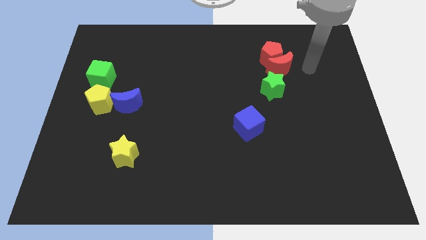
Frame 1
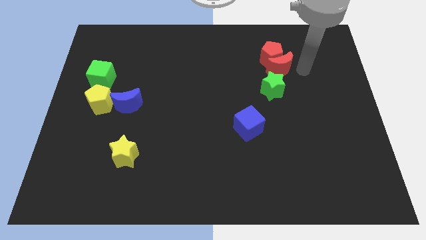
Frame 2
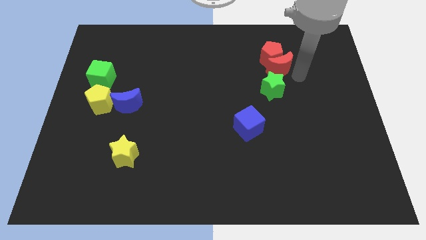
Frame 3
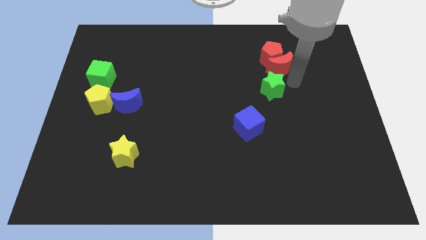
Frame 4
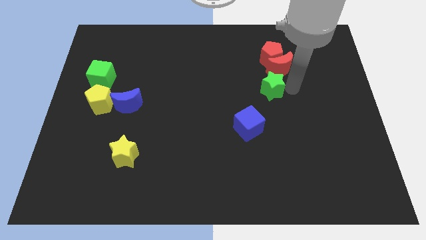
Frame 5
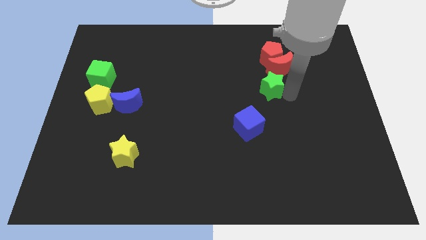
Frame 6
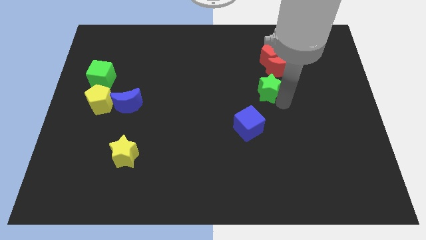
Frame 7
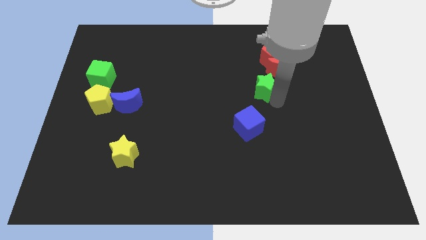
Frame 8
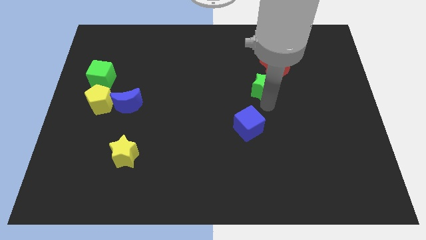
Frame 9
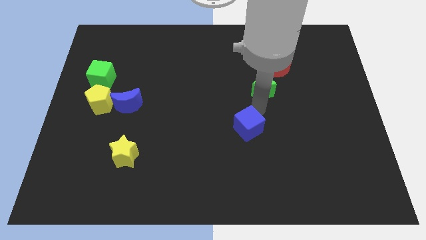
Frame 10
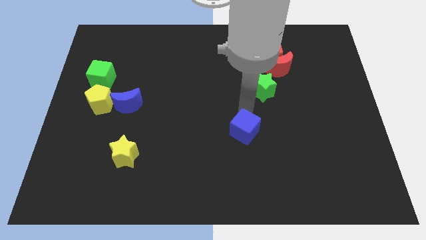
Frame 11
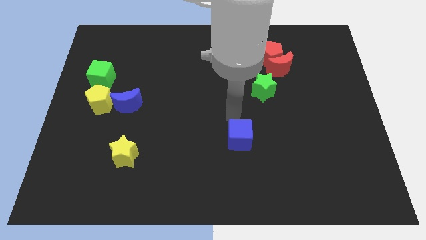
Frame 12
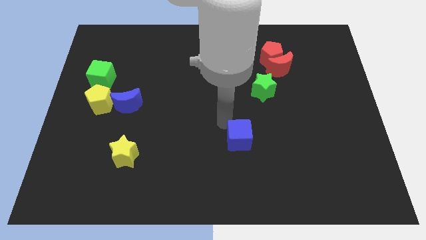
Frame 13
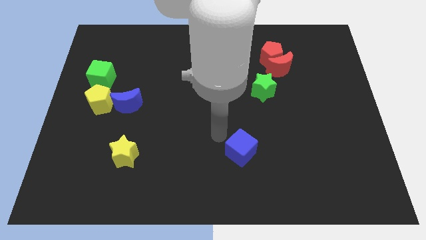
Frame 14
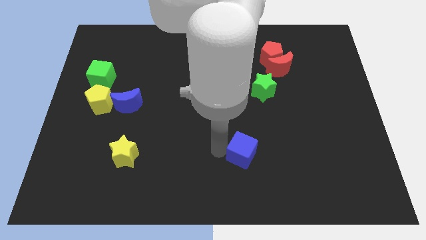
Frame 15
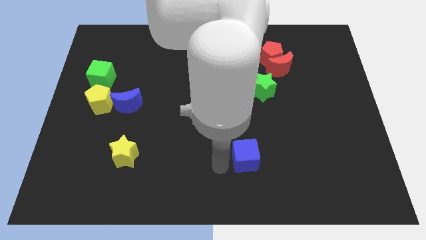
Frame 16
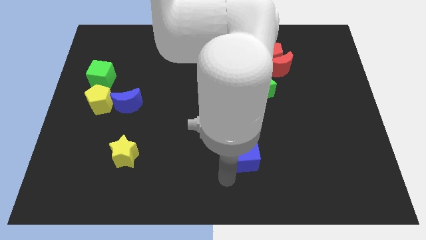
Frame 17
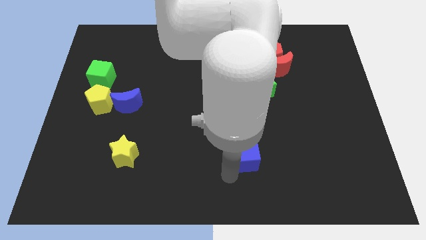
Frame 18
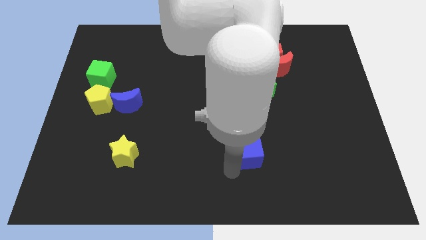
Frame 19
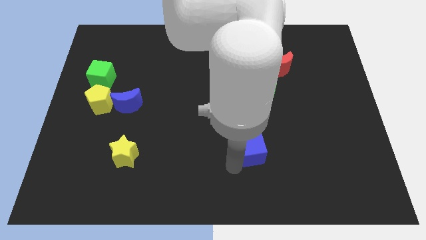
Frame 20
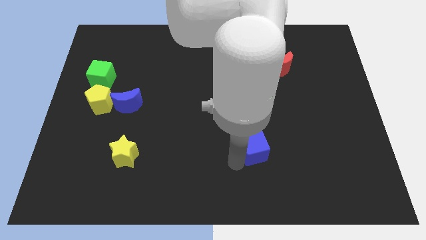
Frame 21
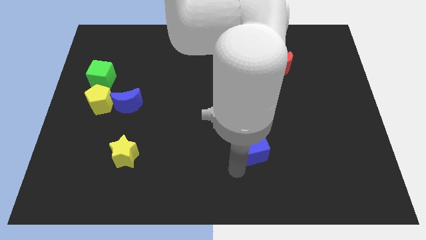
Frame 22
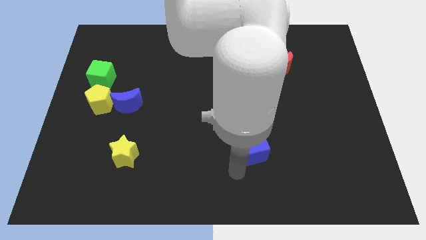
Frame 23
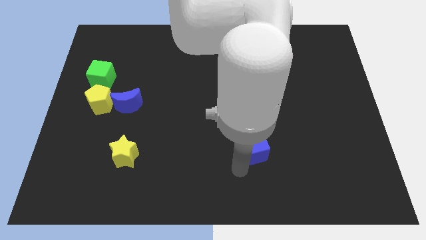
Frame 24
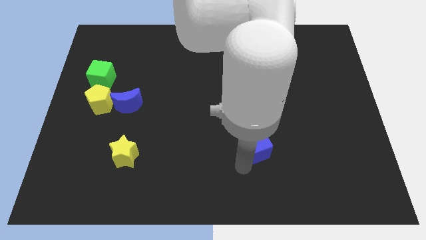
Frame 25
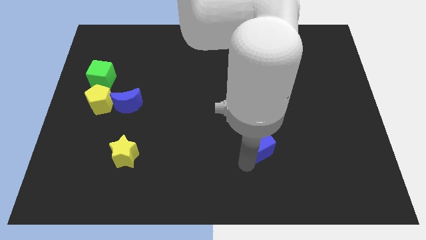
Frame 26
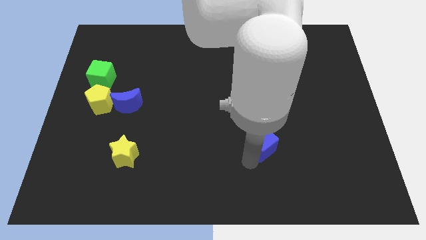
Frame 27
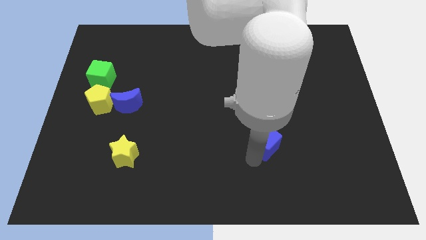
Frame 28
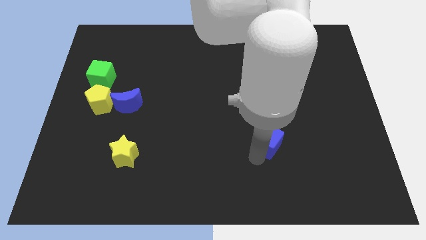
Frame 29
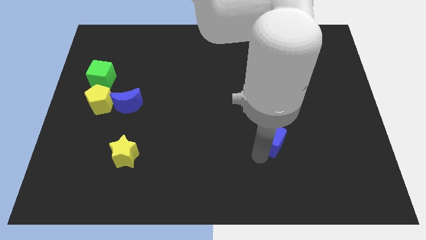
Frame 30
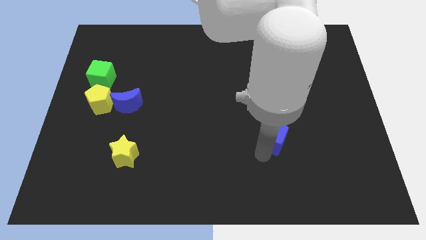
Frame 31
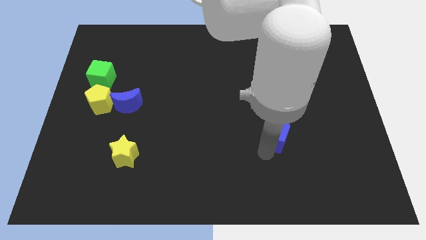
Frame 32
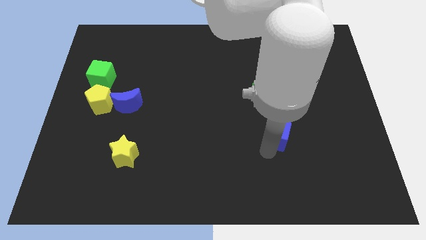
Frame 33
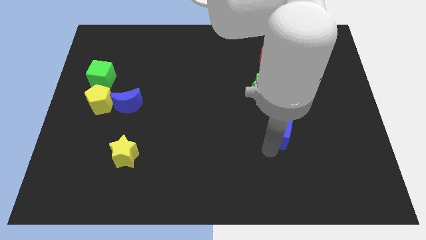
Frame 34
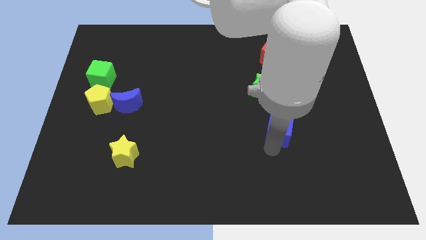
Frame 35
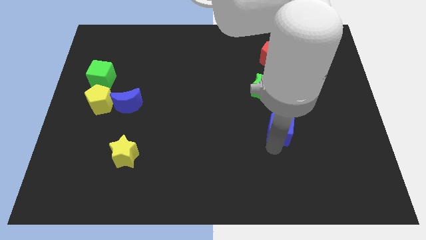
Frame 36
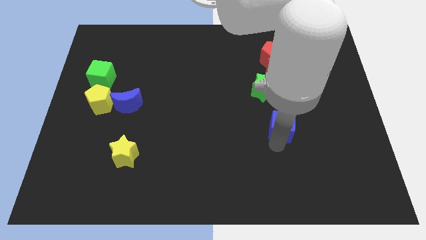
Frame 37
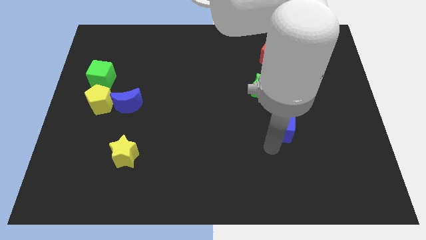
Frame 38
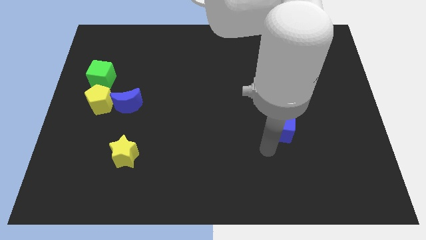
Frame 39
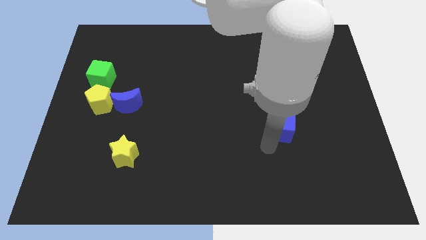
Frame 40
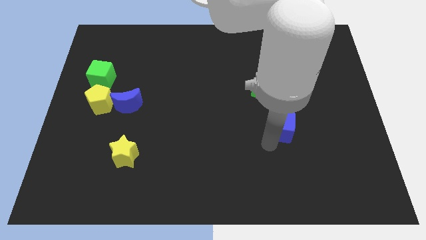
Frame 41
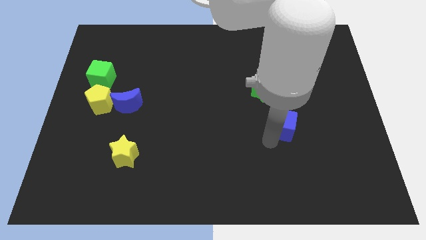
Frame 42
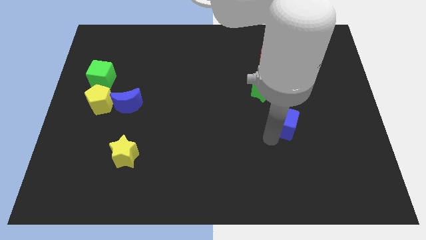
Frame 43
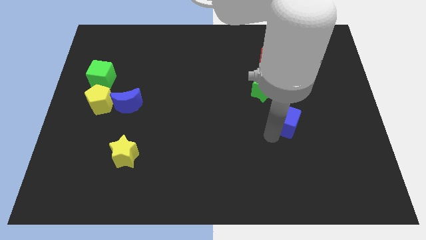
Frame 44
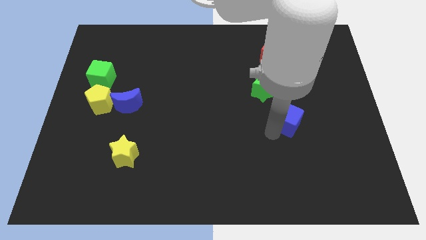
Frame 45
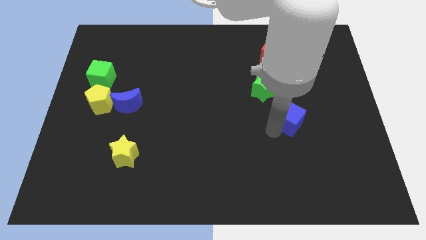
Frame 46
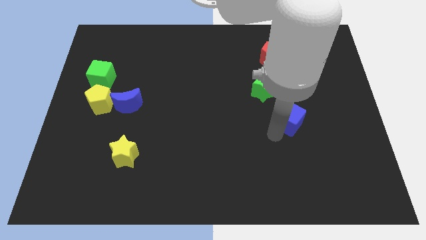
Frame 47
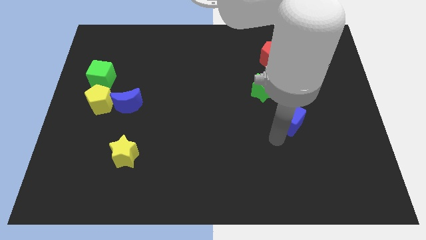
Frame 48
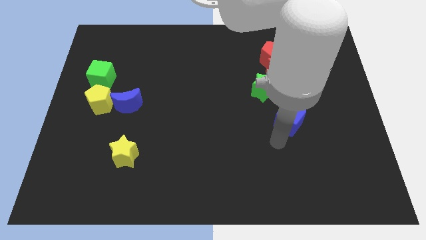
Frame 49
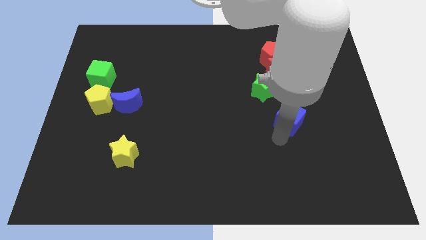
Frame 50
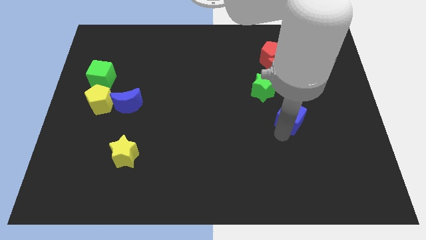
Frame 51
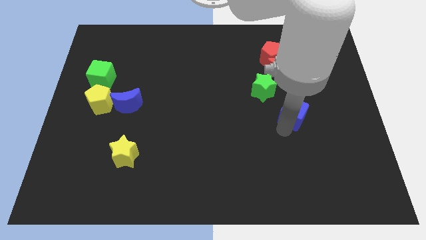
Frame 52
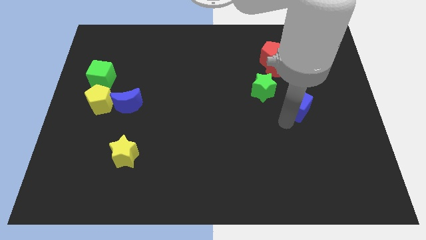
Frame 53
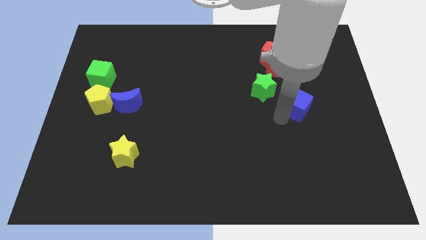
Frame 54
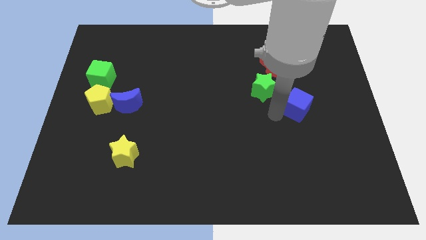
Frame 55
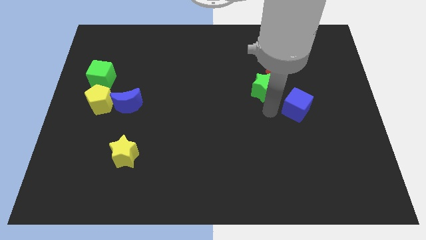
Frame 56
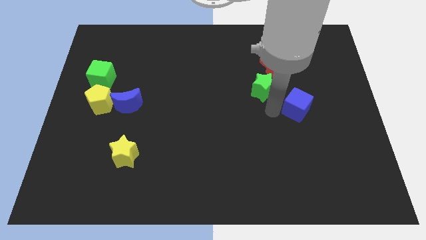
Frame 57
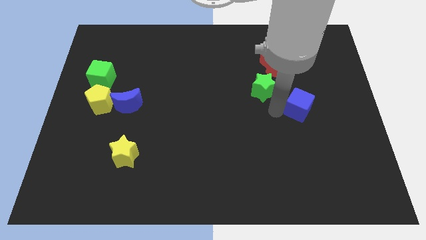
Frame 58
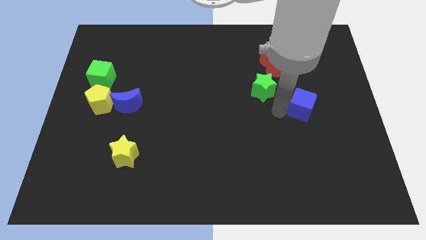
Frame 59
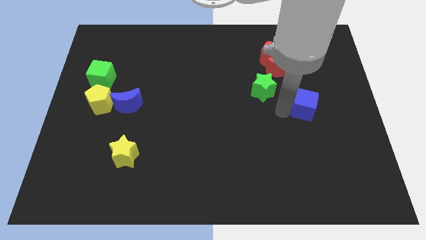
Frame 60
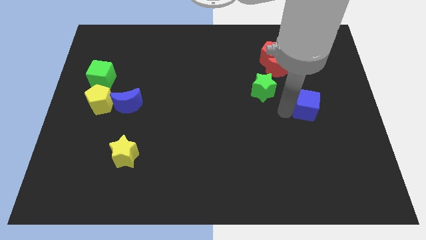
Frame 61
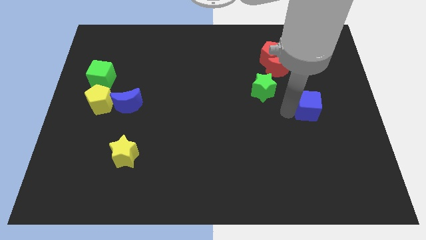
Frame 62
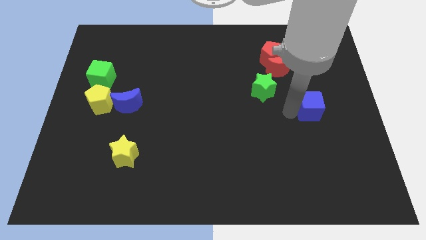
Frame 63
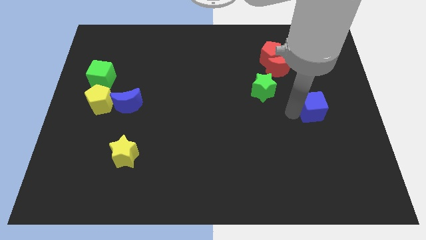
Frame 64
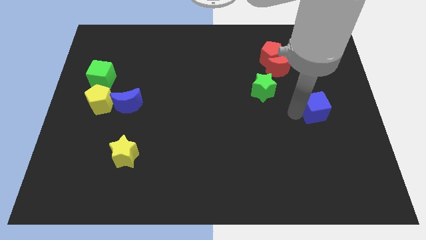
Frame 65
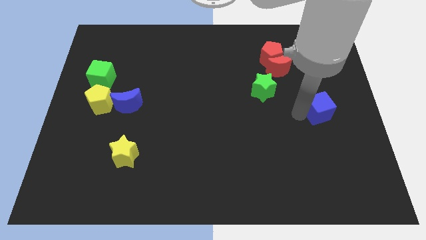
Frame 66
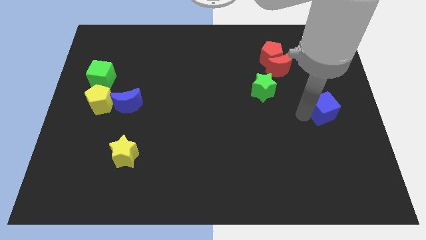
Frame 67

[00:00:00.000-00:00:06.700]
slide the blue cube to the center right
